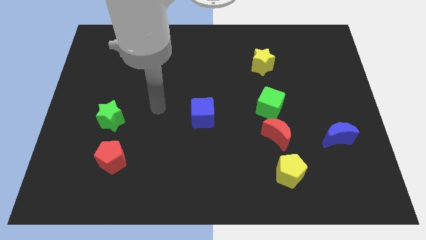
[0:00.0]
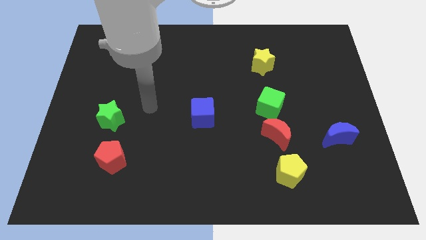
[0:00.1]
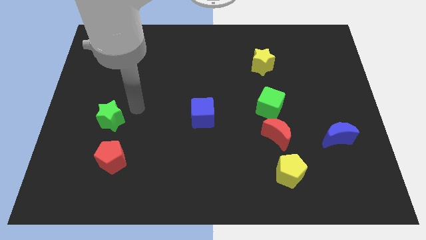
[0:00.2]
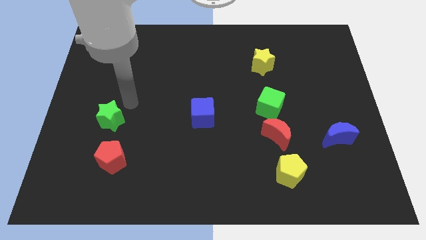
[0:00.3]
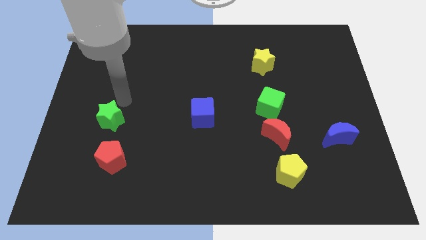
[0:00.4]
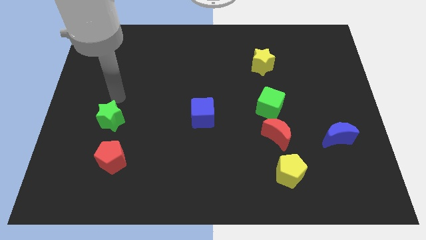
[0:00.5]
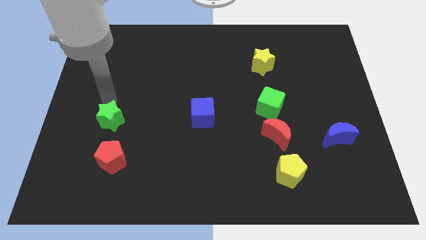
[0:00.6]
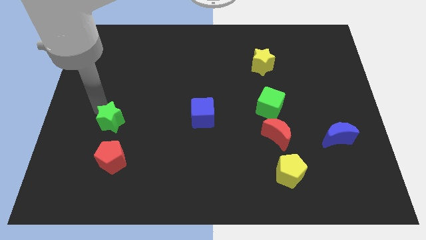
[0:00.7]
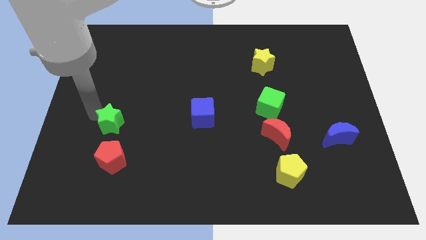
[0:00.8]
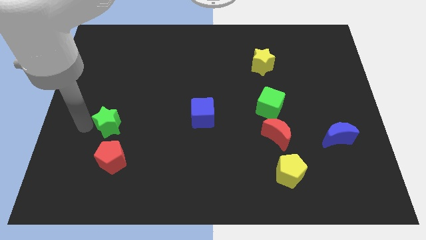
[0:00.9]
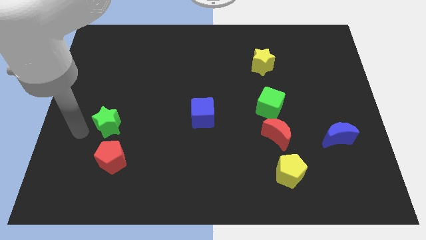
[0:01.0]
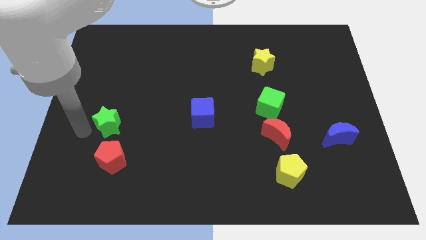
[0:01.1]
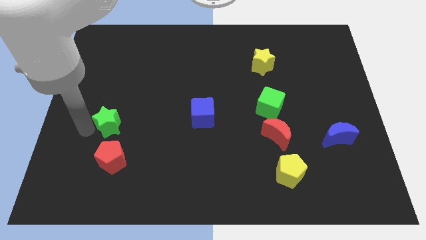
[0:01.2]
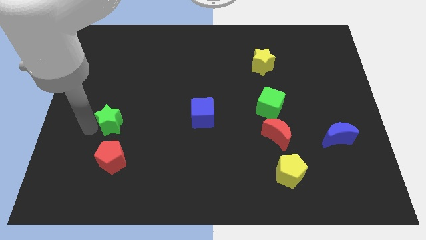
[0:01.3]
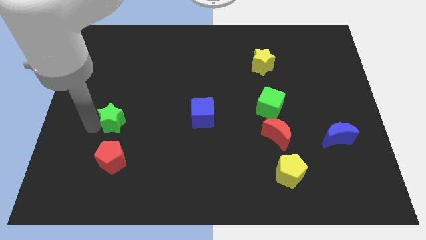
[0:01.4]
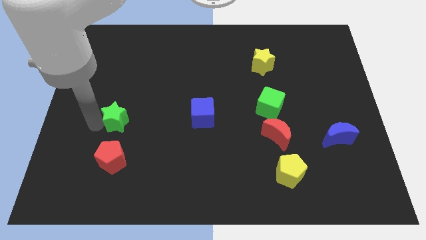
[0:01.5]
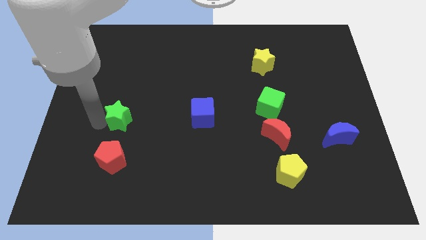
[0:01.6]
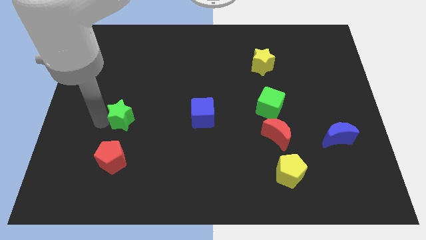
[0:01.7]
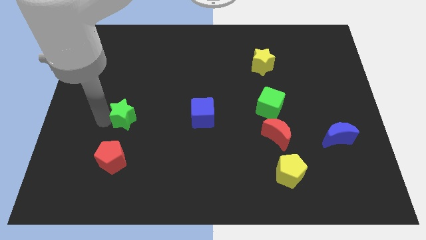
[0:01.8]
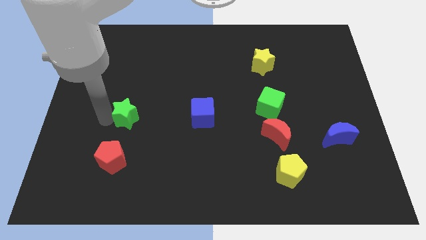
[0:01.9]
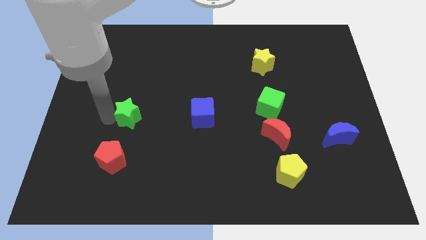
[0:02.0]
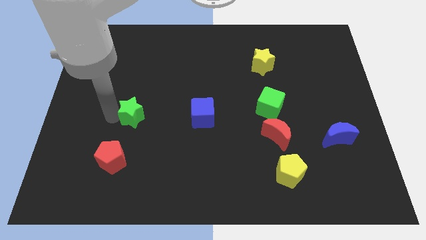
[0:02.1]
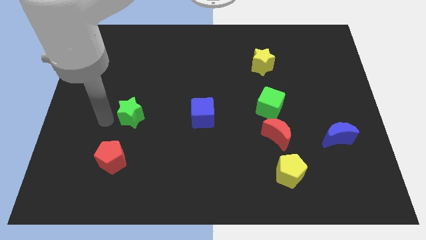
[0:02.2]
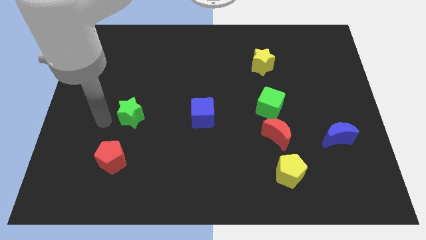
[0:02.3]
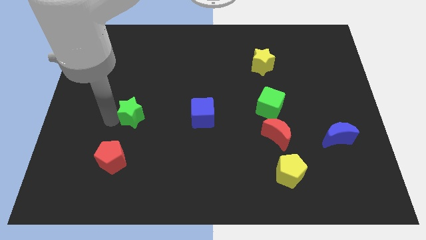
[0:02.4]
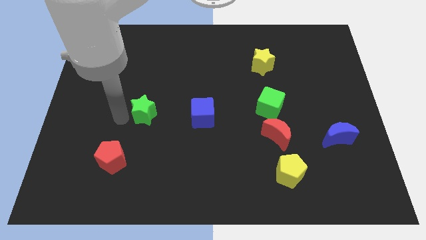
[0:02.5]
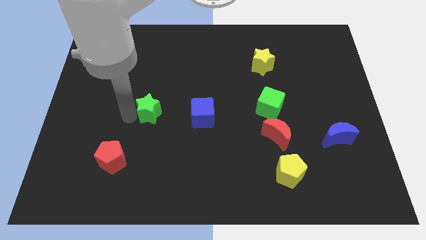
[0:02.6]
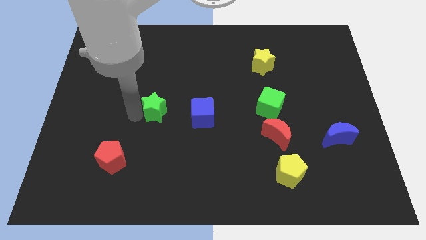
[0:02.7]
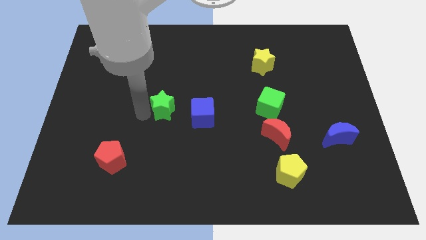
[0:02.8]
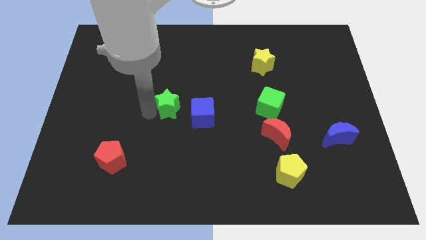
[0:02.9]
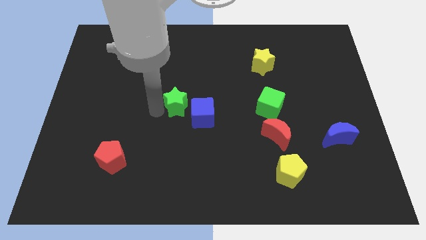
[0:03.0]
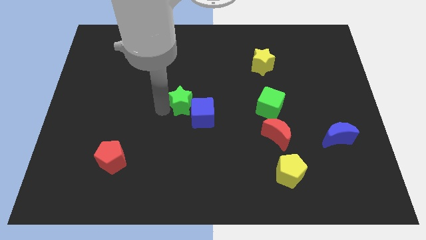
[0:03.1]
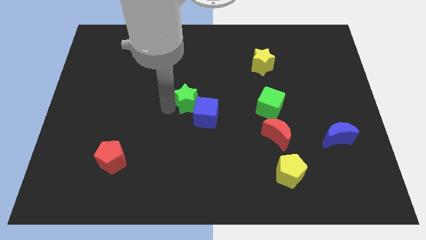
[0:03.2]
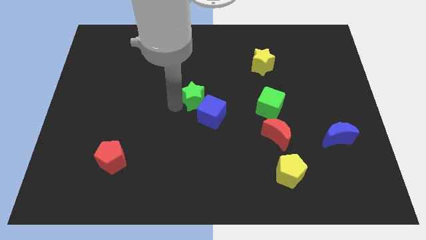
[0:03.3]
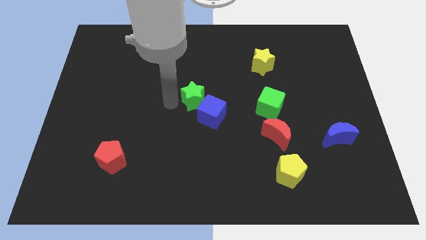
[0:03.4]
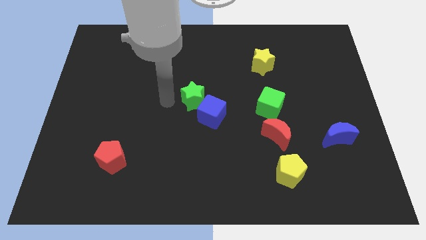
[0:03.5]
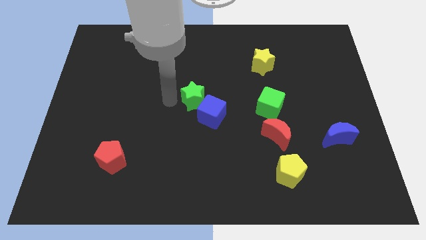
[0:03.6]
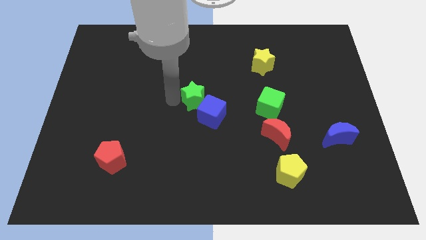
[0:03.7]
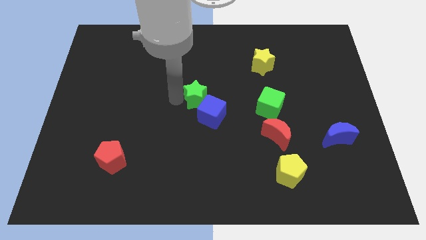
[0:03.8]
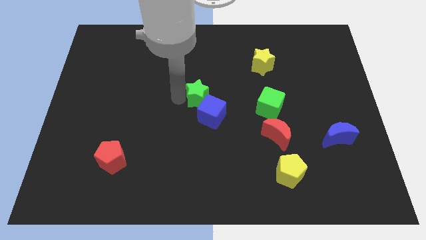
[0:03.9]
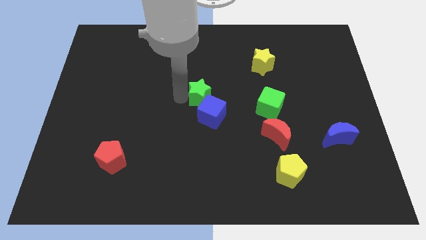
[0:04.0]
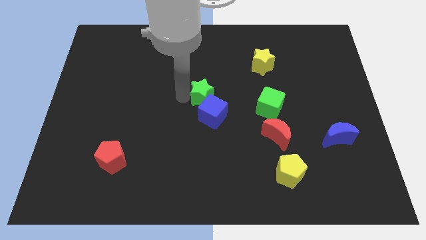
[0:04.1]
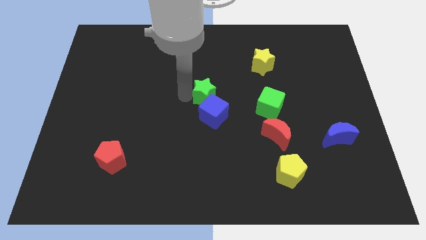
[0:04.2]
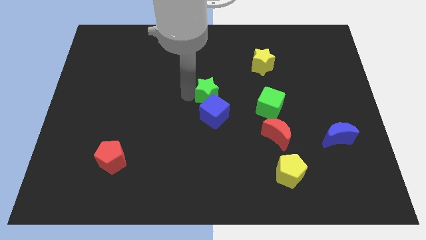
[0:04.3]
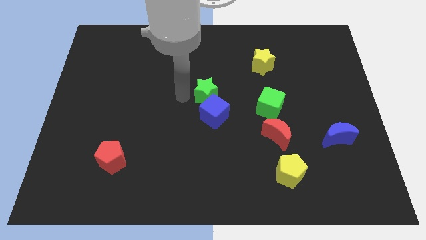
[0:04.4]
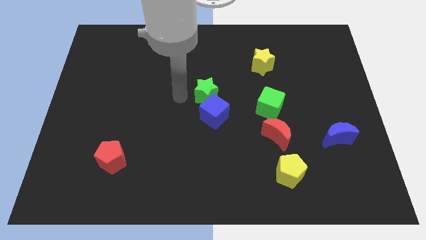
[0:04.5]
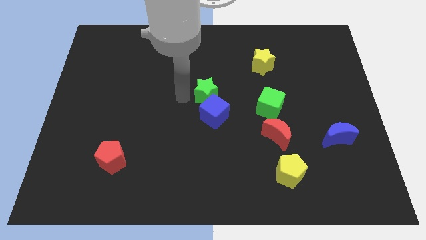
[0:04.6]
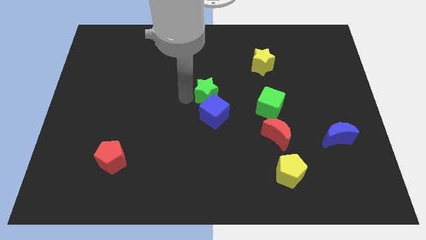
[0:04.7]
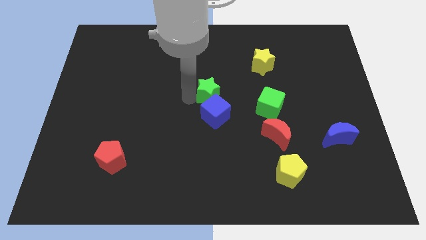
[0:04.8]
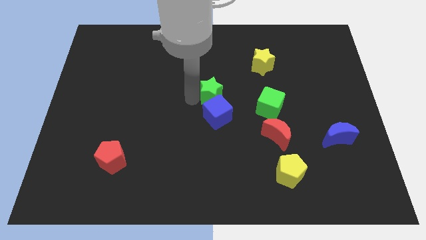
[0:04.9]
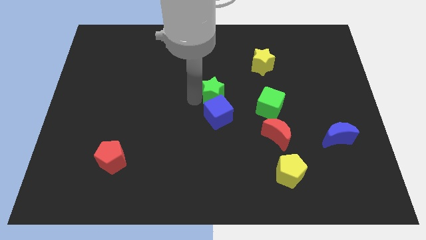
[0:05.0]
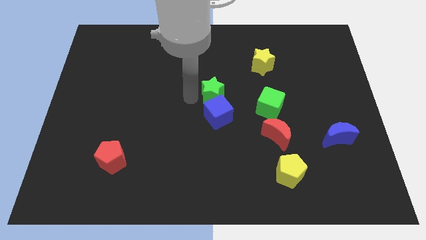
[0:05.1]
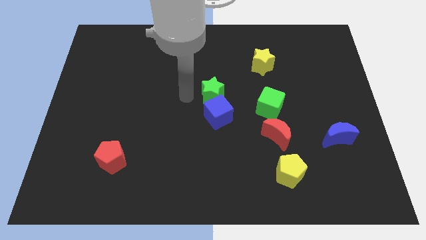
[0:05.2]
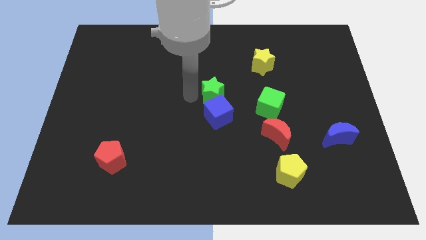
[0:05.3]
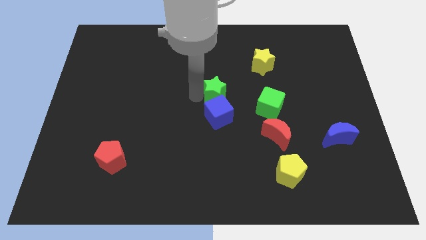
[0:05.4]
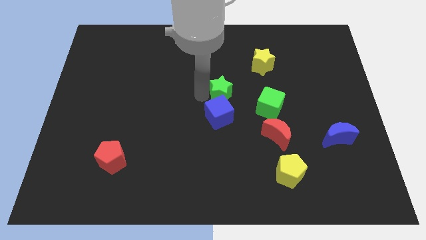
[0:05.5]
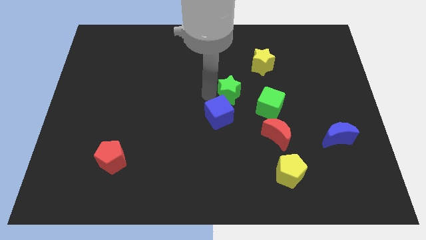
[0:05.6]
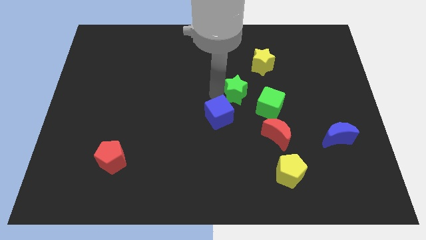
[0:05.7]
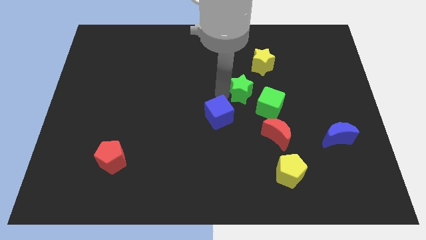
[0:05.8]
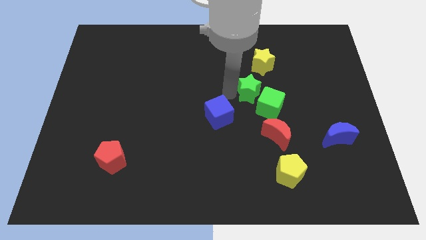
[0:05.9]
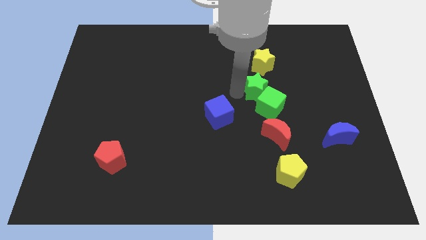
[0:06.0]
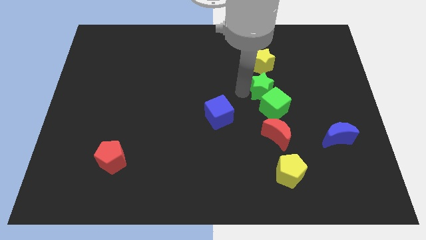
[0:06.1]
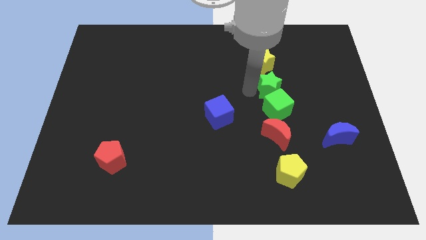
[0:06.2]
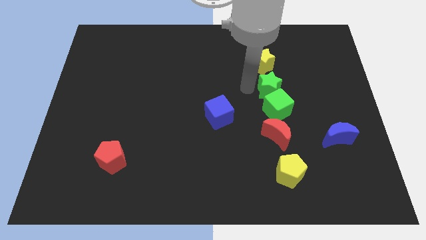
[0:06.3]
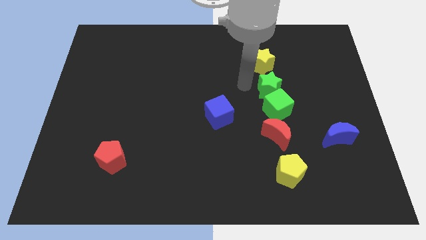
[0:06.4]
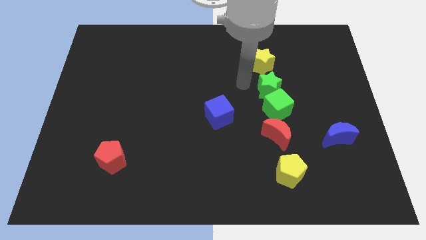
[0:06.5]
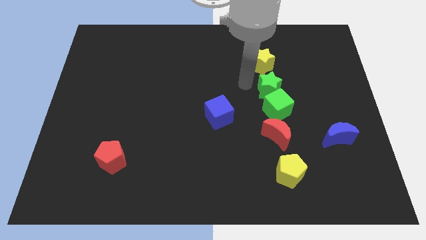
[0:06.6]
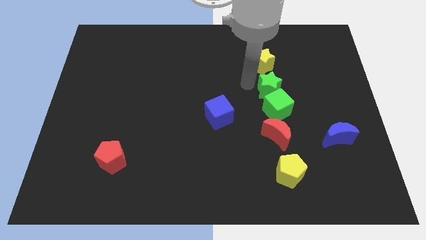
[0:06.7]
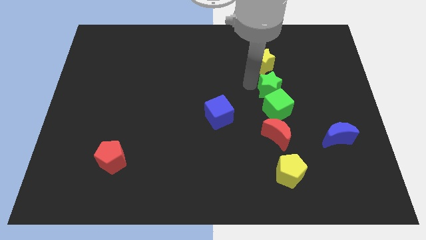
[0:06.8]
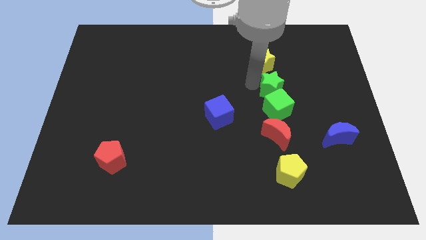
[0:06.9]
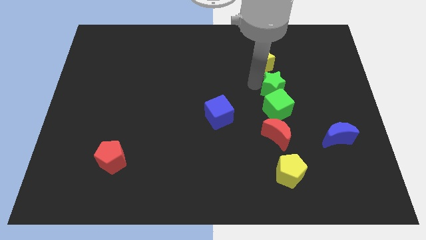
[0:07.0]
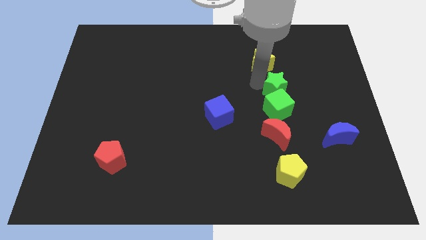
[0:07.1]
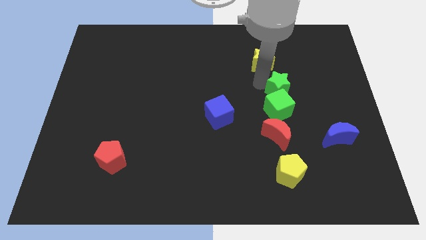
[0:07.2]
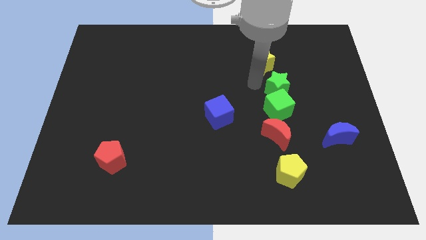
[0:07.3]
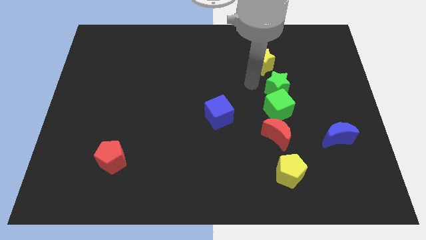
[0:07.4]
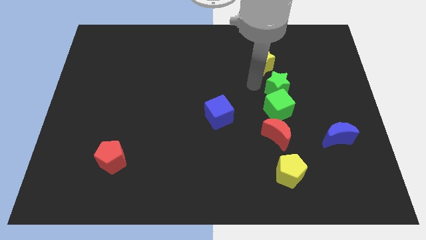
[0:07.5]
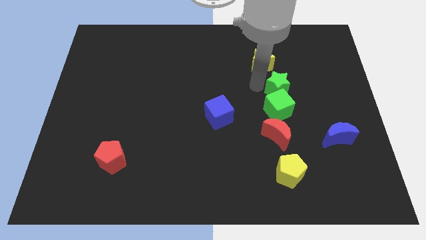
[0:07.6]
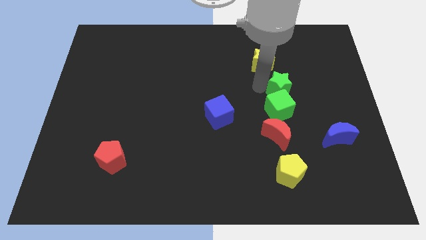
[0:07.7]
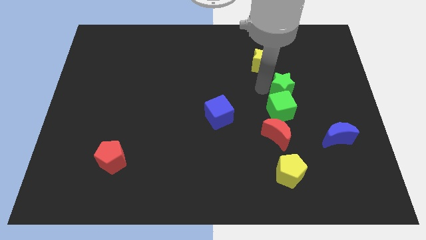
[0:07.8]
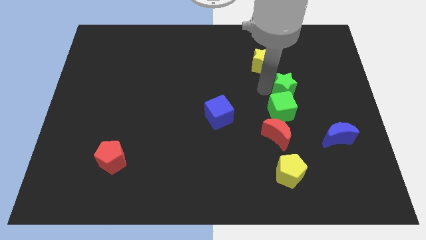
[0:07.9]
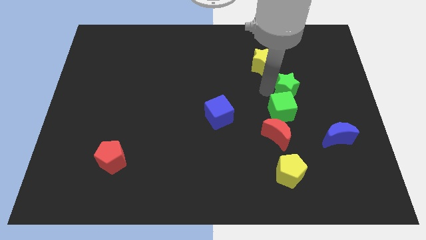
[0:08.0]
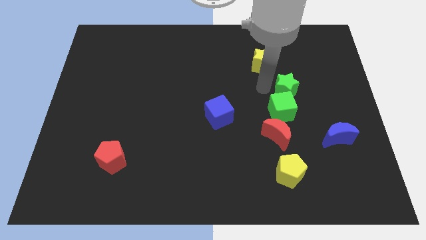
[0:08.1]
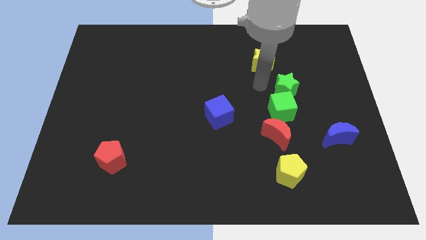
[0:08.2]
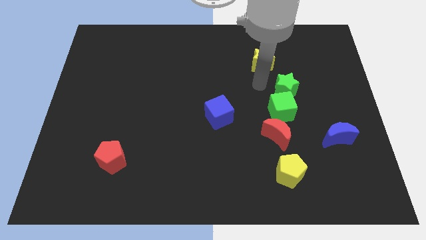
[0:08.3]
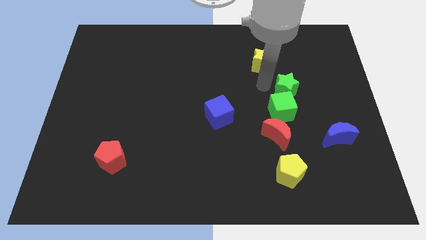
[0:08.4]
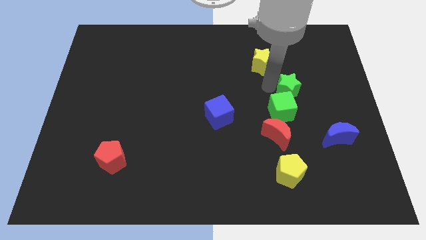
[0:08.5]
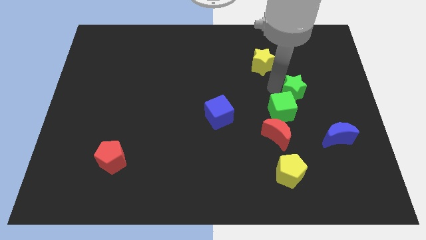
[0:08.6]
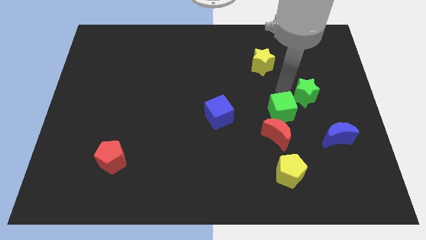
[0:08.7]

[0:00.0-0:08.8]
slide the green star to the top of the blue moon
